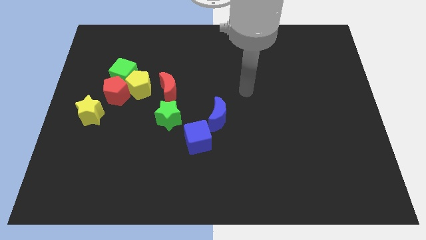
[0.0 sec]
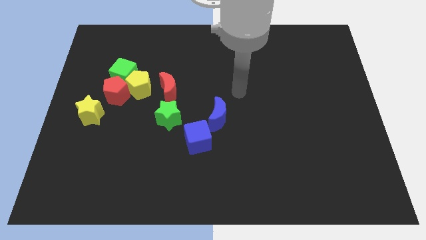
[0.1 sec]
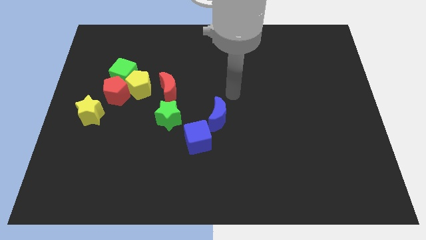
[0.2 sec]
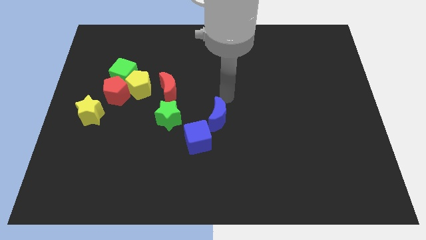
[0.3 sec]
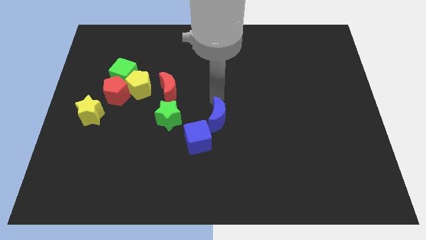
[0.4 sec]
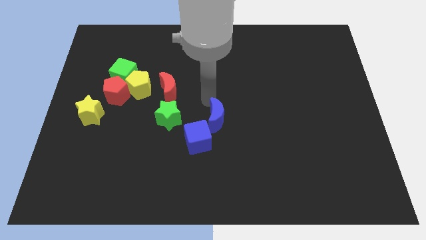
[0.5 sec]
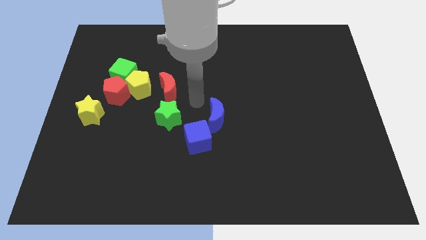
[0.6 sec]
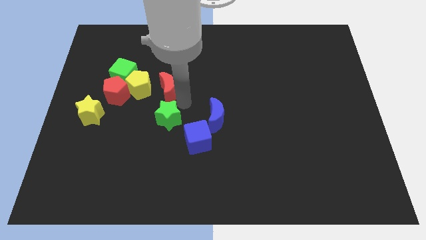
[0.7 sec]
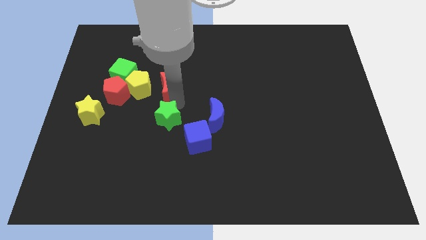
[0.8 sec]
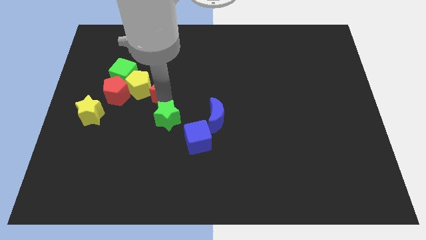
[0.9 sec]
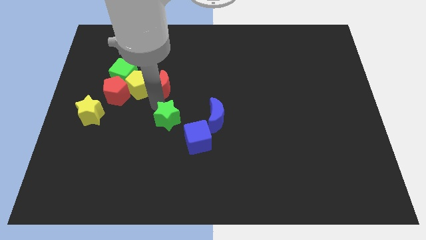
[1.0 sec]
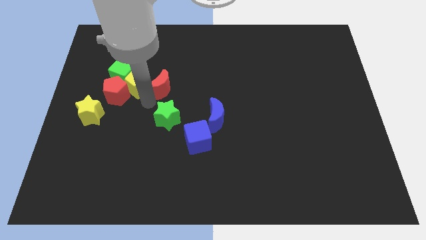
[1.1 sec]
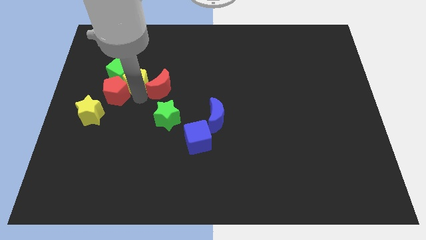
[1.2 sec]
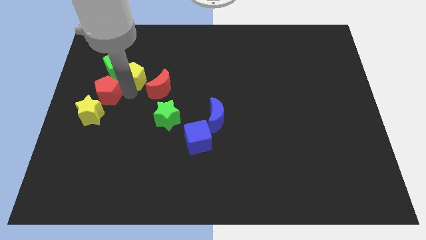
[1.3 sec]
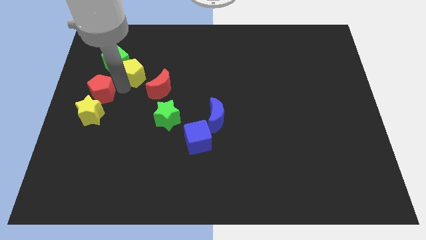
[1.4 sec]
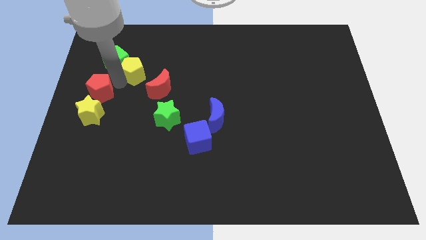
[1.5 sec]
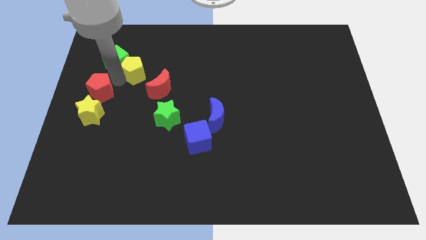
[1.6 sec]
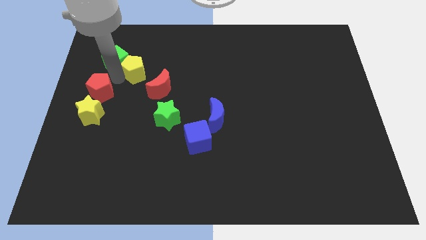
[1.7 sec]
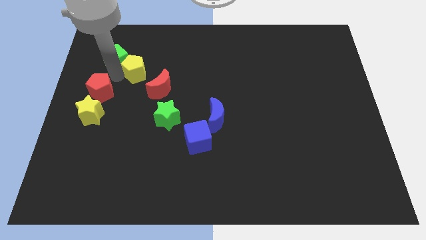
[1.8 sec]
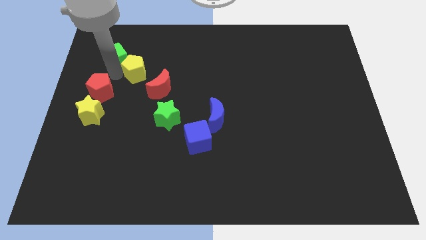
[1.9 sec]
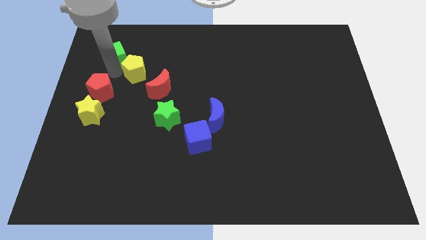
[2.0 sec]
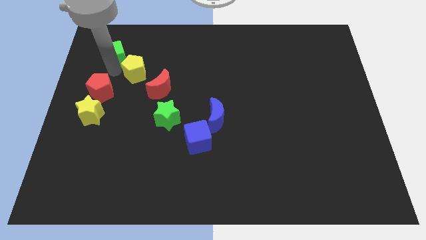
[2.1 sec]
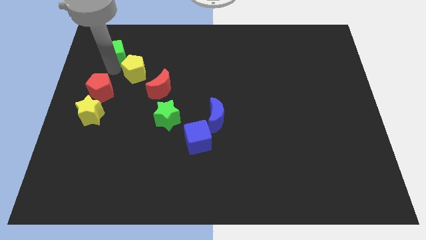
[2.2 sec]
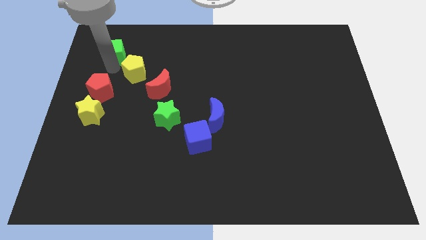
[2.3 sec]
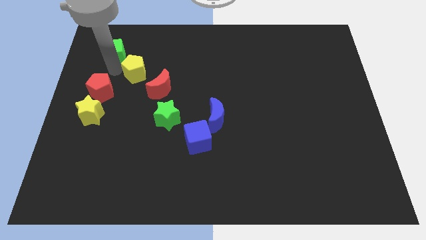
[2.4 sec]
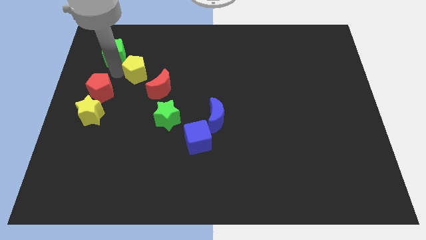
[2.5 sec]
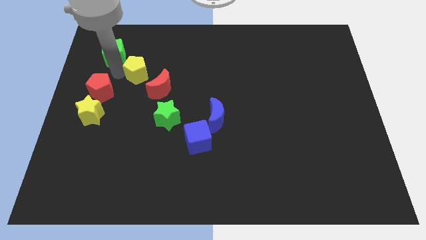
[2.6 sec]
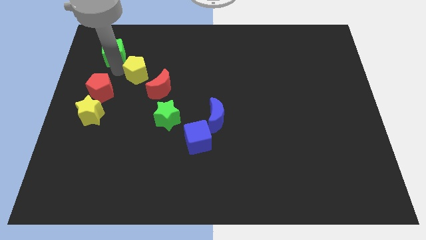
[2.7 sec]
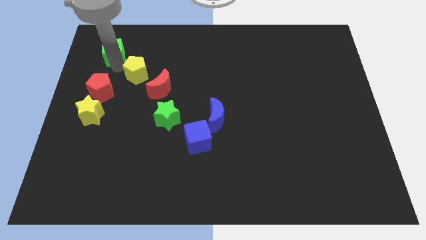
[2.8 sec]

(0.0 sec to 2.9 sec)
move the green cube away from the yellow pentagon and red pentagon

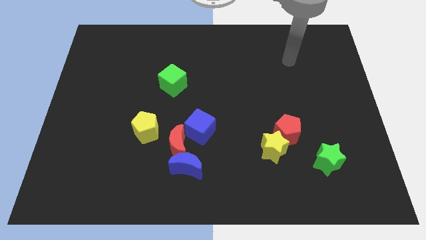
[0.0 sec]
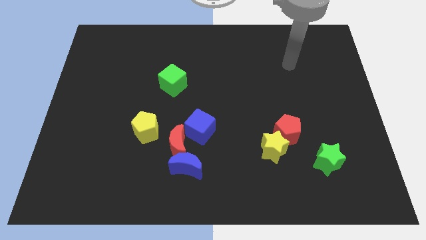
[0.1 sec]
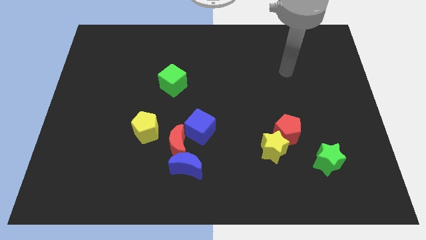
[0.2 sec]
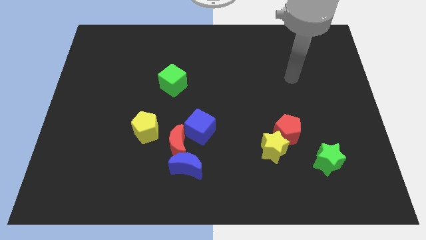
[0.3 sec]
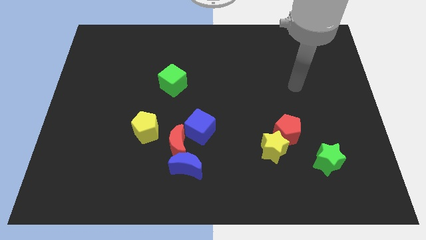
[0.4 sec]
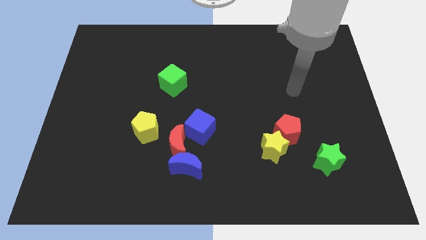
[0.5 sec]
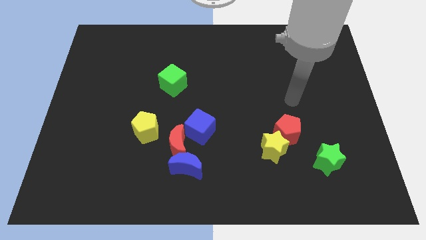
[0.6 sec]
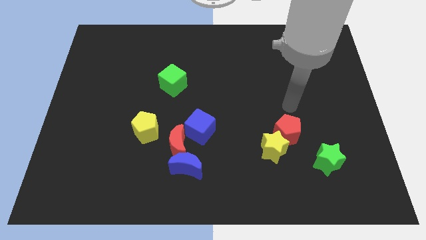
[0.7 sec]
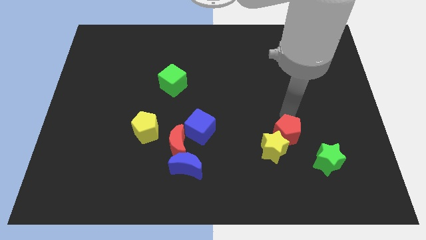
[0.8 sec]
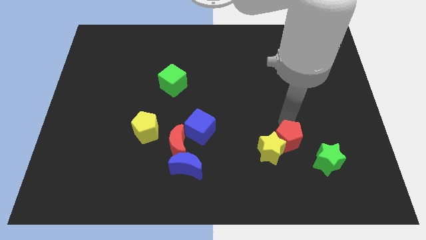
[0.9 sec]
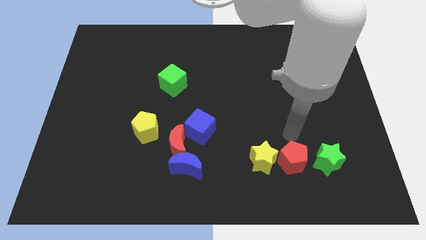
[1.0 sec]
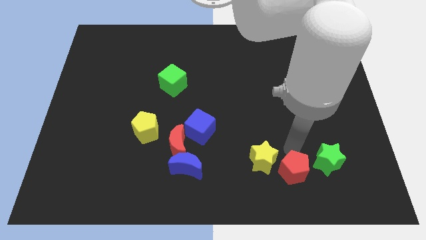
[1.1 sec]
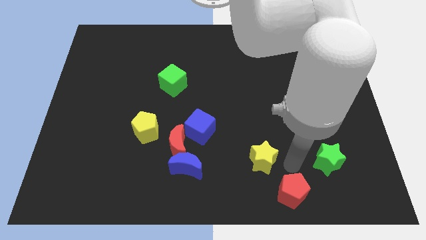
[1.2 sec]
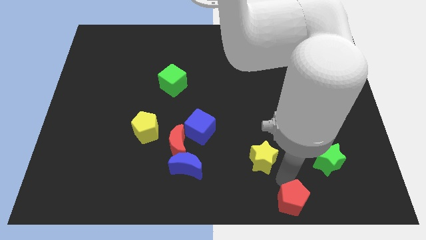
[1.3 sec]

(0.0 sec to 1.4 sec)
move the yellow star away from the red pentagon

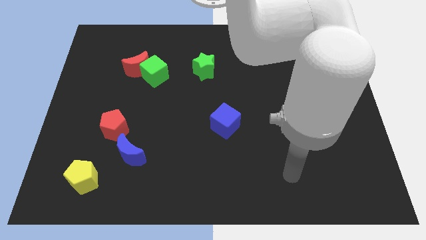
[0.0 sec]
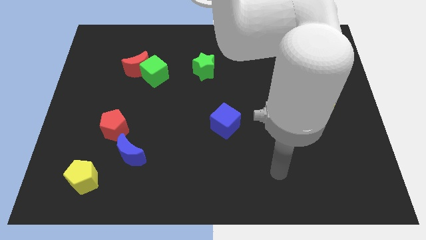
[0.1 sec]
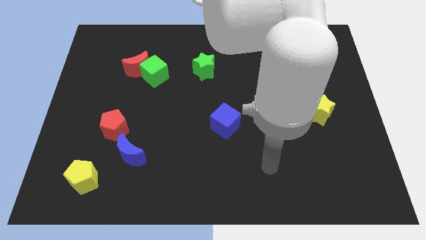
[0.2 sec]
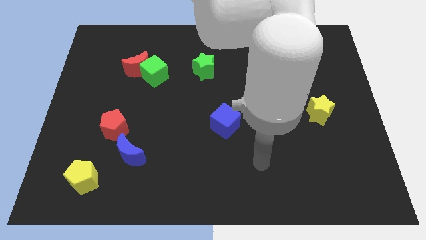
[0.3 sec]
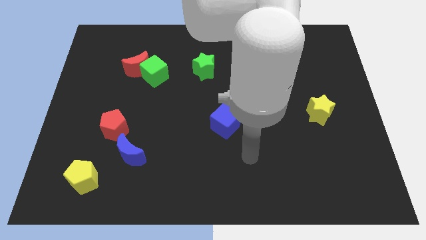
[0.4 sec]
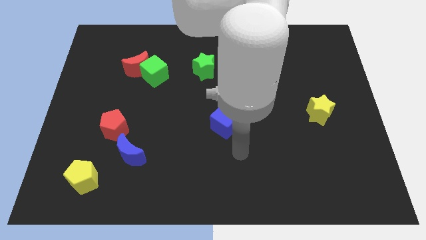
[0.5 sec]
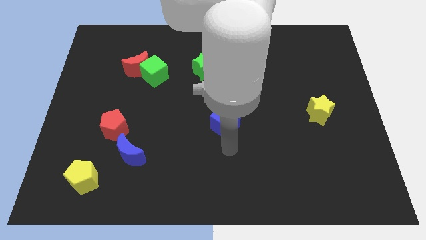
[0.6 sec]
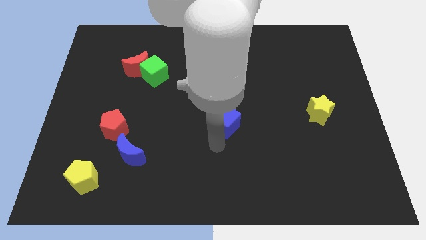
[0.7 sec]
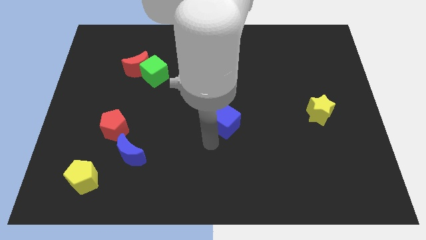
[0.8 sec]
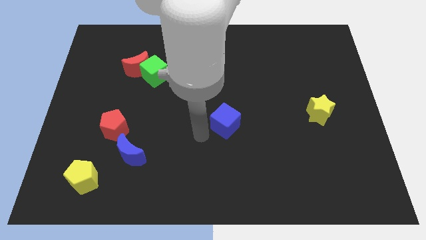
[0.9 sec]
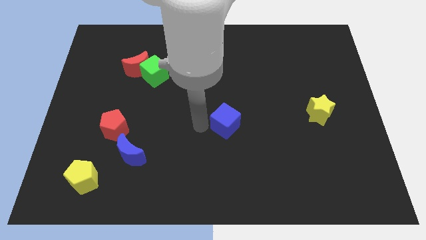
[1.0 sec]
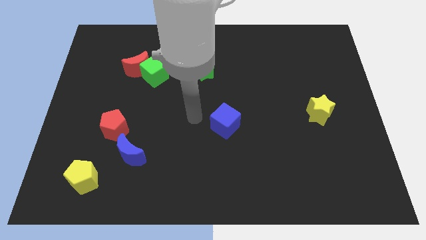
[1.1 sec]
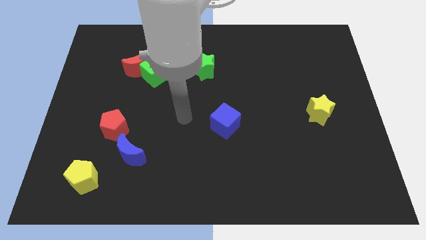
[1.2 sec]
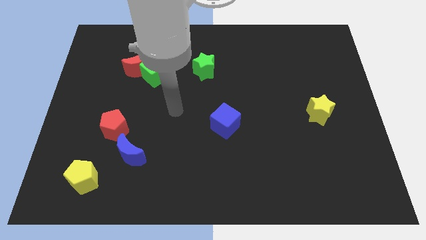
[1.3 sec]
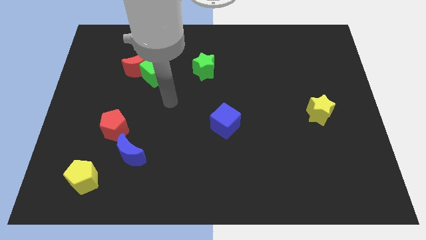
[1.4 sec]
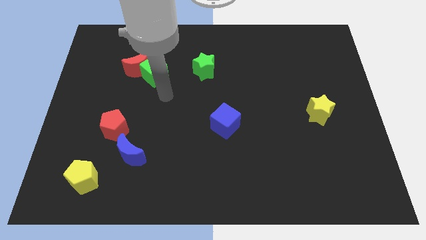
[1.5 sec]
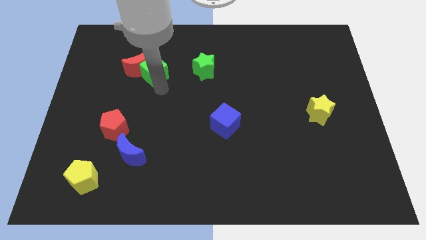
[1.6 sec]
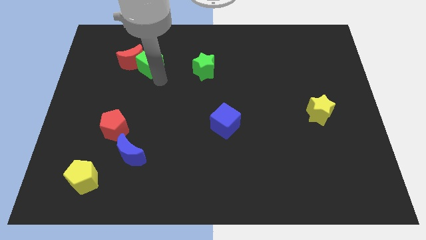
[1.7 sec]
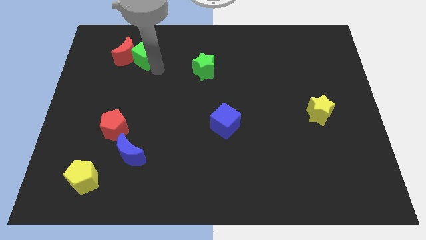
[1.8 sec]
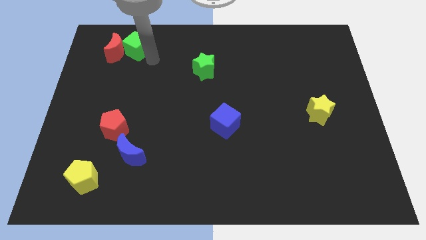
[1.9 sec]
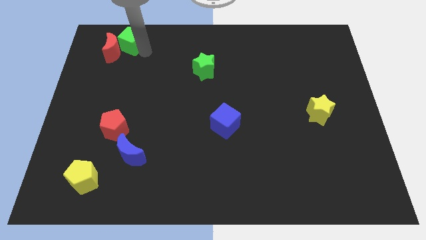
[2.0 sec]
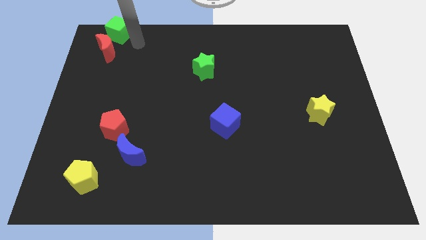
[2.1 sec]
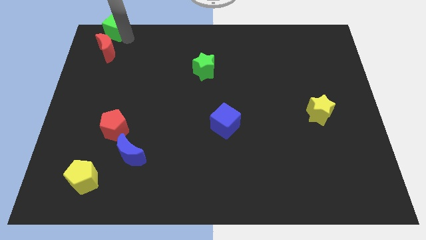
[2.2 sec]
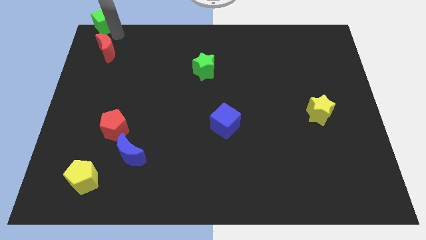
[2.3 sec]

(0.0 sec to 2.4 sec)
move the red moon away from the green cube

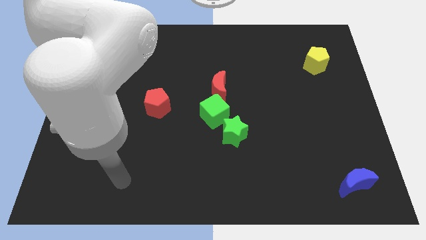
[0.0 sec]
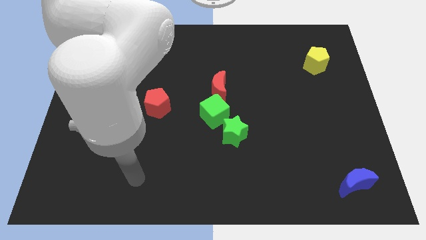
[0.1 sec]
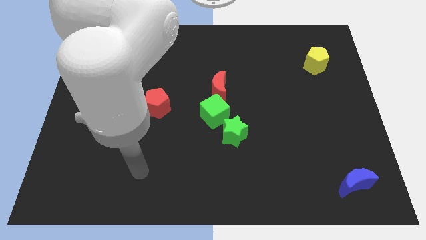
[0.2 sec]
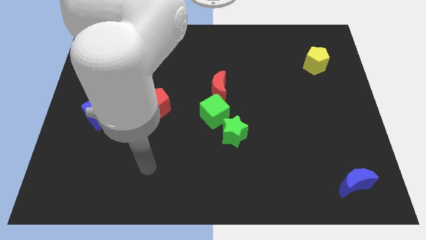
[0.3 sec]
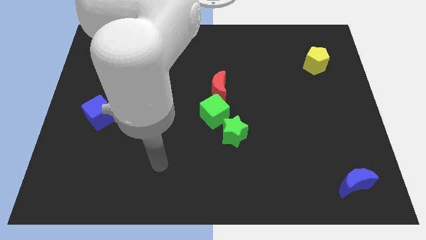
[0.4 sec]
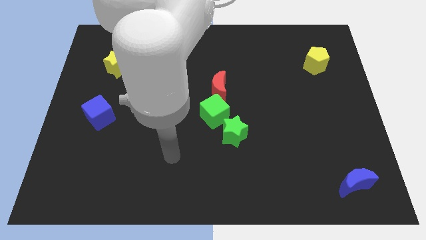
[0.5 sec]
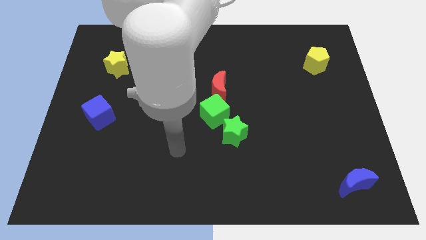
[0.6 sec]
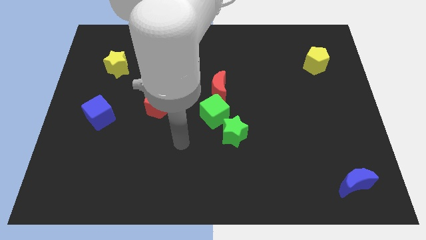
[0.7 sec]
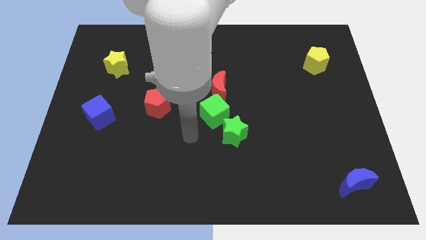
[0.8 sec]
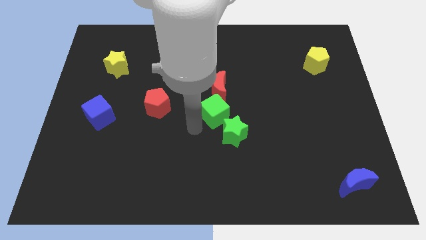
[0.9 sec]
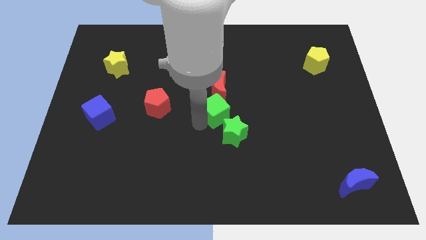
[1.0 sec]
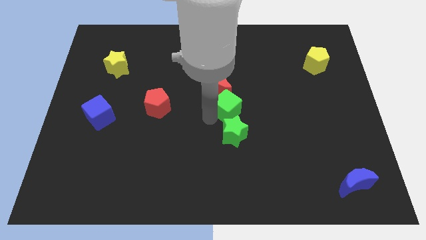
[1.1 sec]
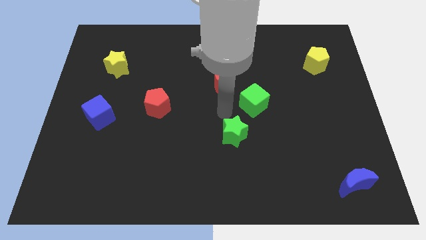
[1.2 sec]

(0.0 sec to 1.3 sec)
separate the green star from the green cube

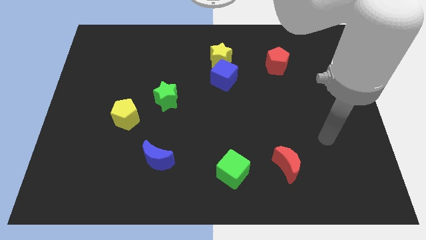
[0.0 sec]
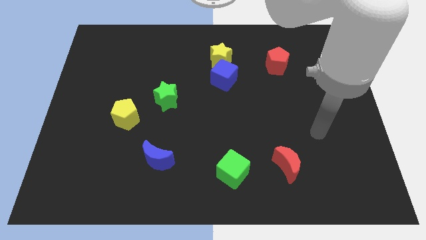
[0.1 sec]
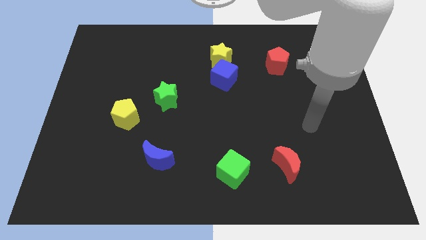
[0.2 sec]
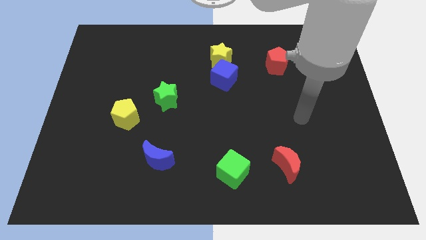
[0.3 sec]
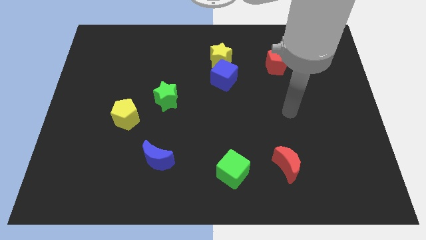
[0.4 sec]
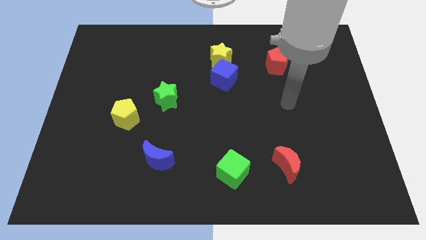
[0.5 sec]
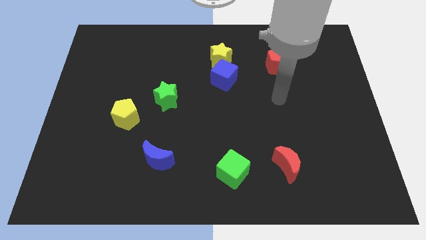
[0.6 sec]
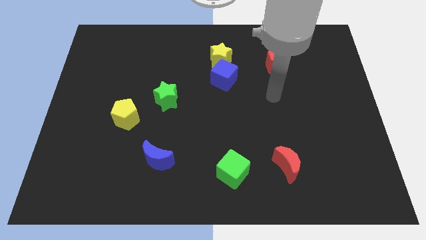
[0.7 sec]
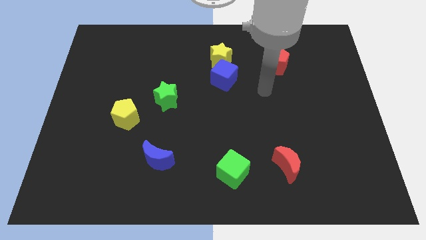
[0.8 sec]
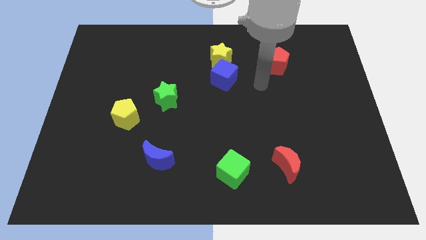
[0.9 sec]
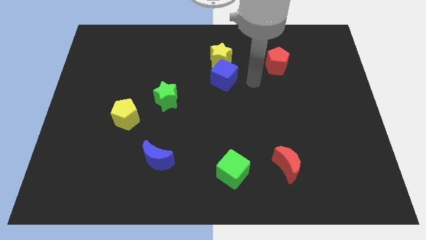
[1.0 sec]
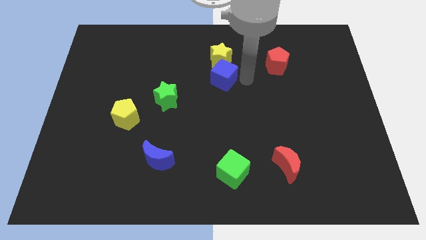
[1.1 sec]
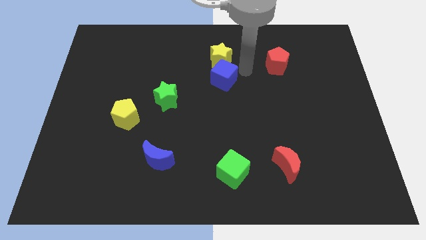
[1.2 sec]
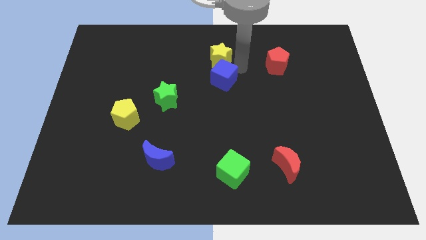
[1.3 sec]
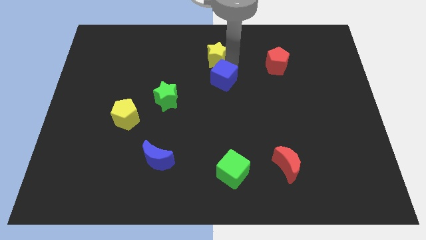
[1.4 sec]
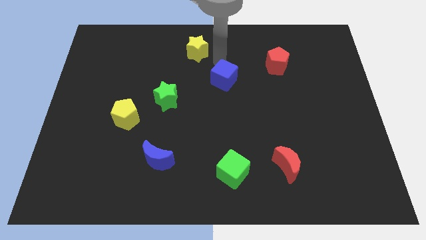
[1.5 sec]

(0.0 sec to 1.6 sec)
pull the blue cube apart from the yellow star
